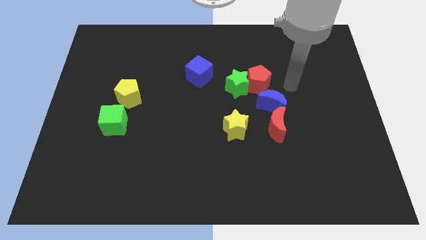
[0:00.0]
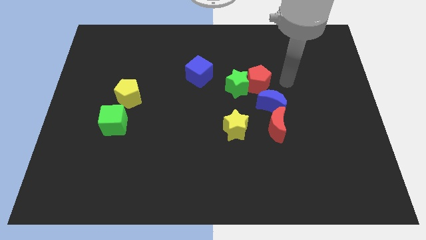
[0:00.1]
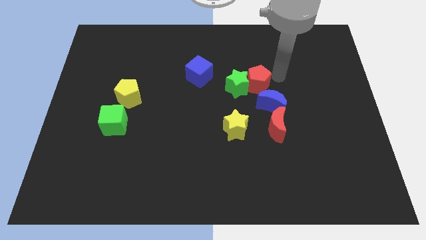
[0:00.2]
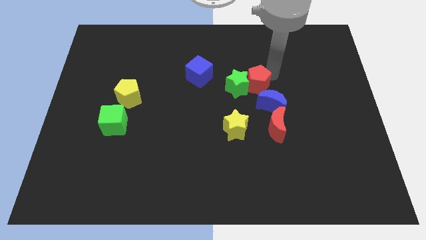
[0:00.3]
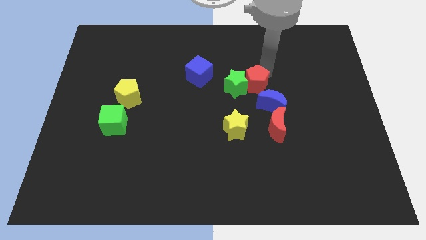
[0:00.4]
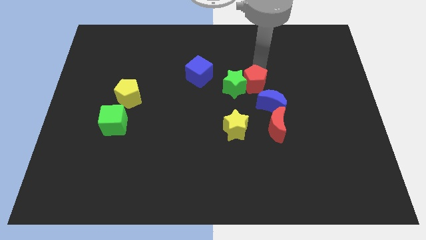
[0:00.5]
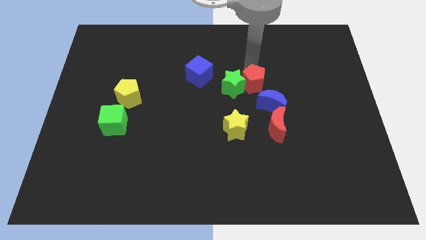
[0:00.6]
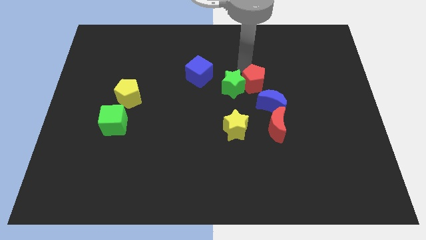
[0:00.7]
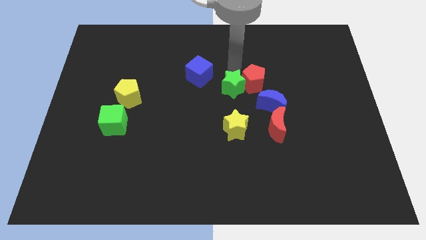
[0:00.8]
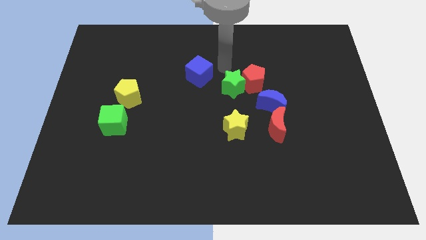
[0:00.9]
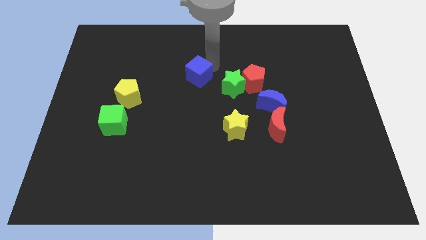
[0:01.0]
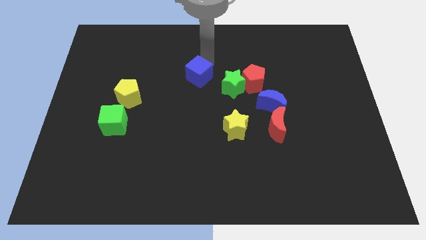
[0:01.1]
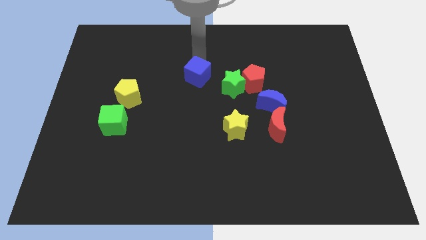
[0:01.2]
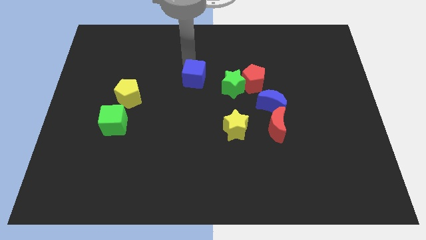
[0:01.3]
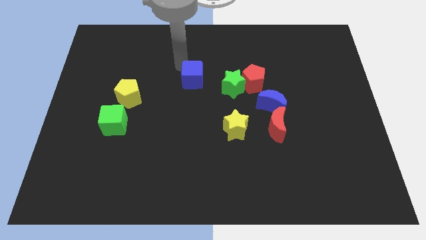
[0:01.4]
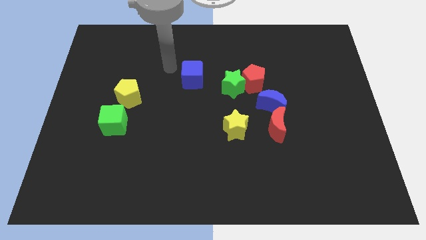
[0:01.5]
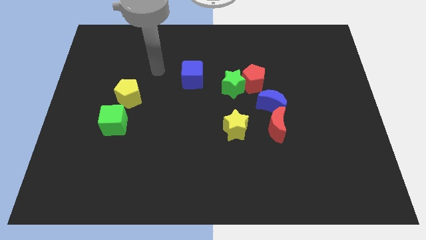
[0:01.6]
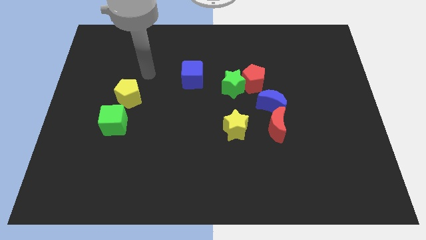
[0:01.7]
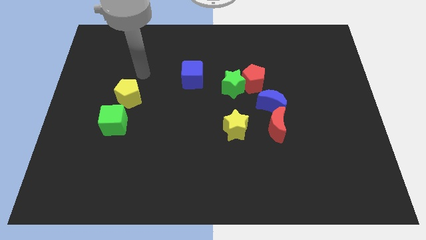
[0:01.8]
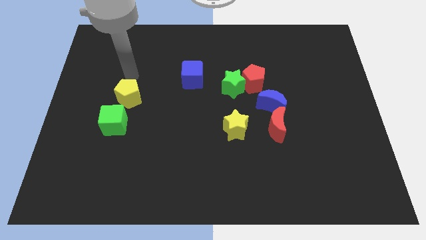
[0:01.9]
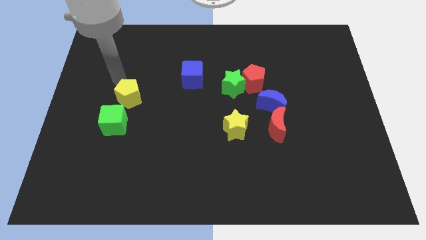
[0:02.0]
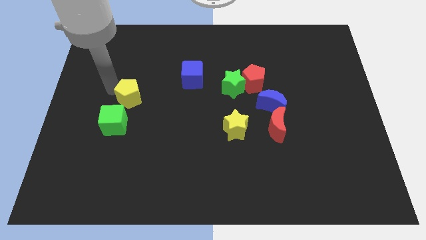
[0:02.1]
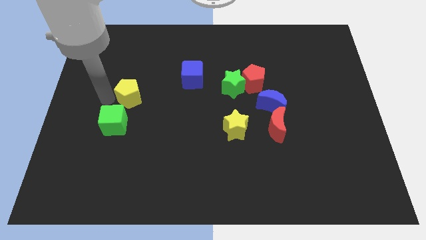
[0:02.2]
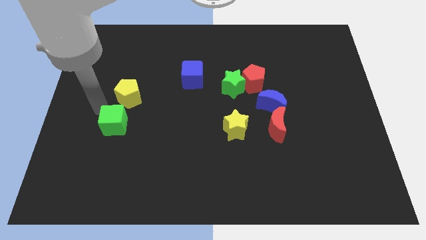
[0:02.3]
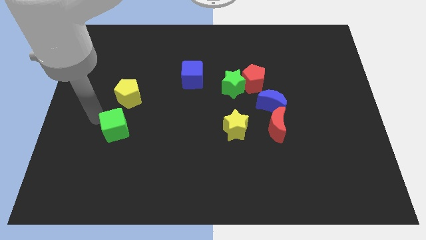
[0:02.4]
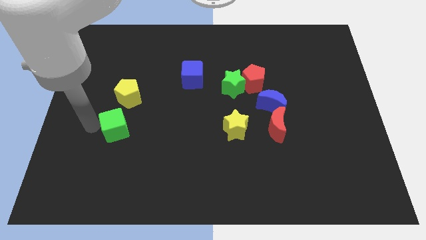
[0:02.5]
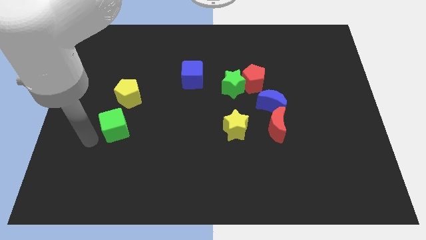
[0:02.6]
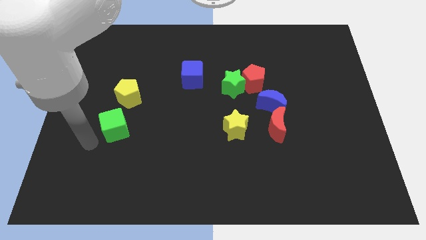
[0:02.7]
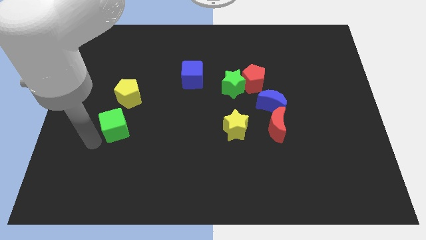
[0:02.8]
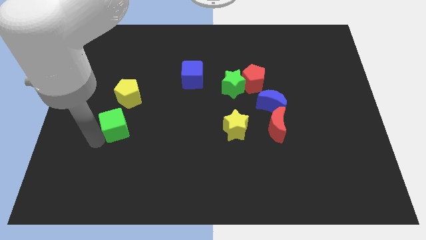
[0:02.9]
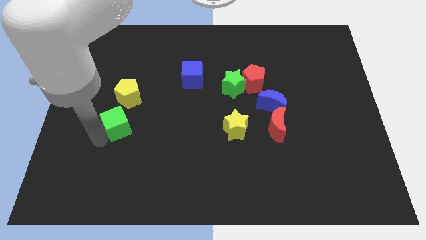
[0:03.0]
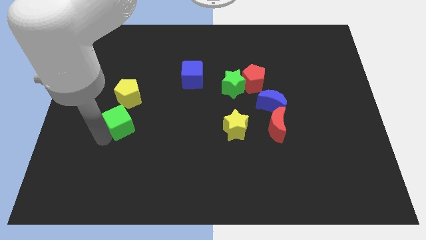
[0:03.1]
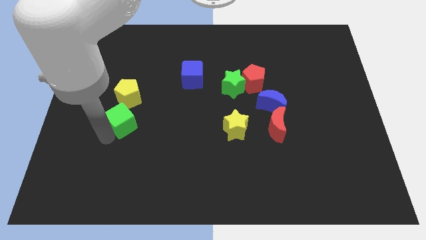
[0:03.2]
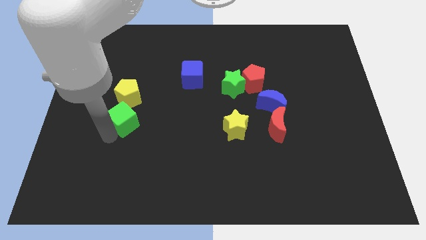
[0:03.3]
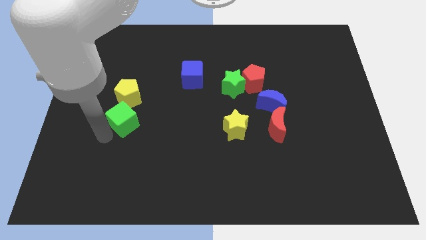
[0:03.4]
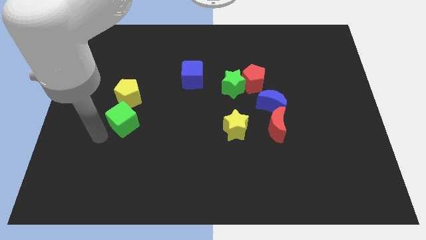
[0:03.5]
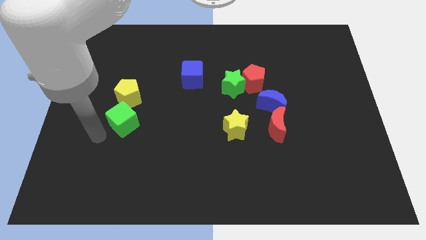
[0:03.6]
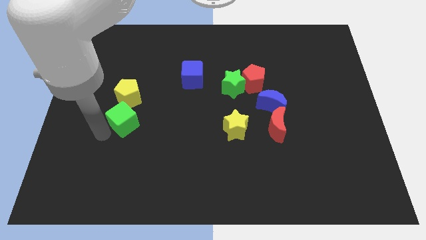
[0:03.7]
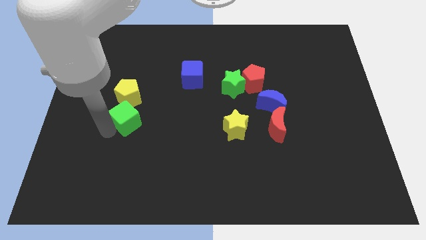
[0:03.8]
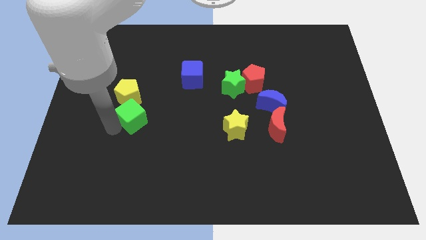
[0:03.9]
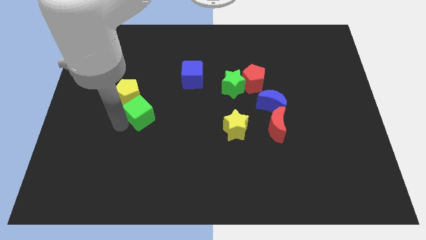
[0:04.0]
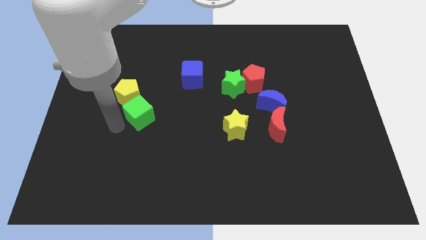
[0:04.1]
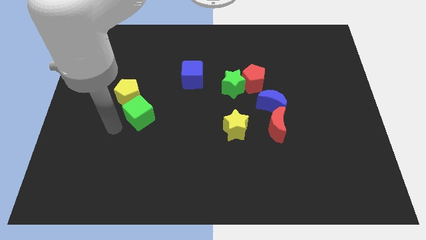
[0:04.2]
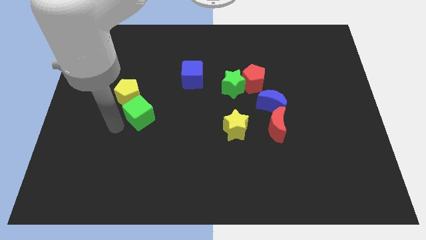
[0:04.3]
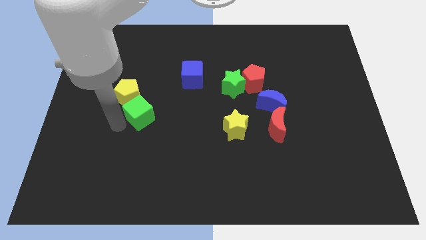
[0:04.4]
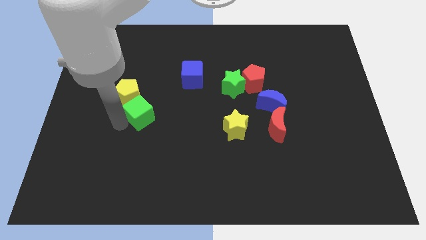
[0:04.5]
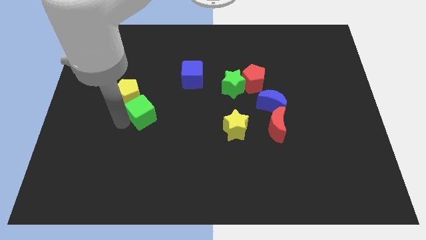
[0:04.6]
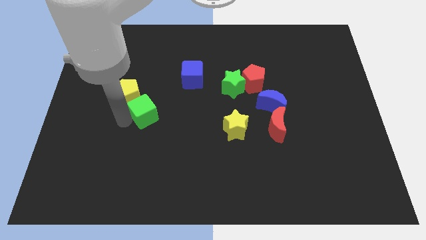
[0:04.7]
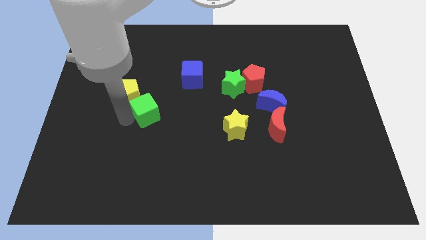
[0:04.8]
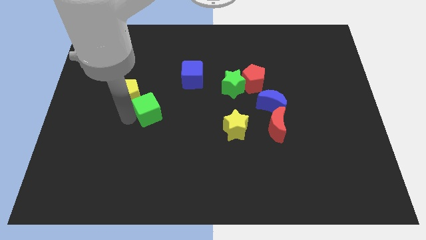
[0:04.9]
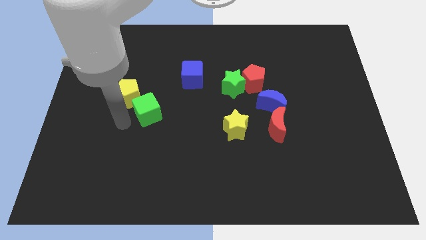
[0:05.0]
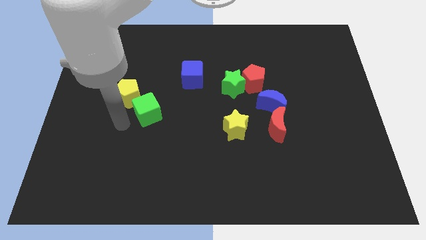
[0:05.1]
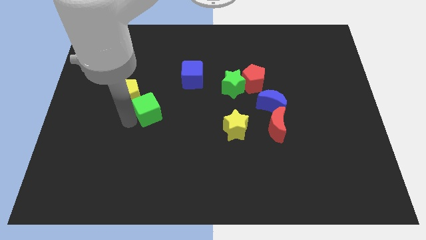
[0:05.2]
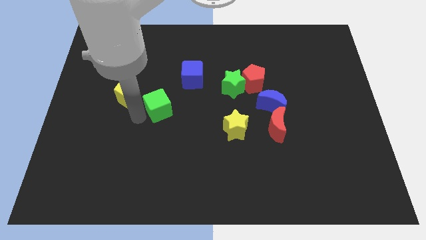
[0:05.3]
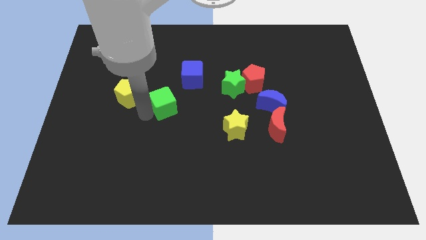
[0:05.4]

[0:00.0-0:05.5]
move the green cube to the middle of the board

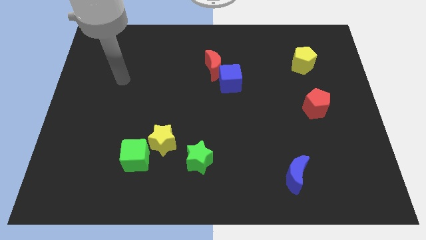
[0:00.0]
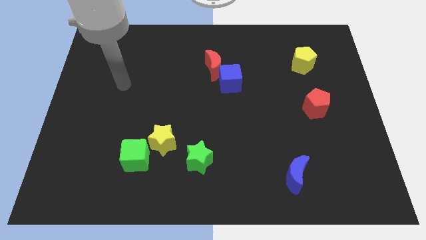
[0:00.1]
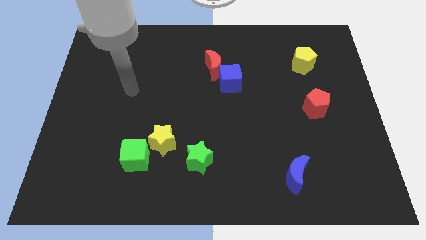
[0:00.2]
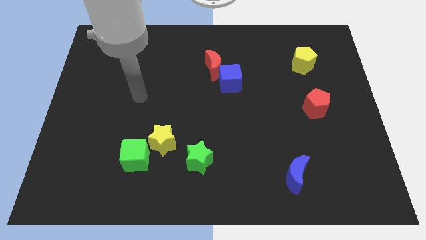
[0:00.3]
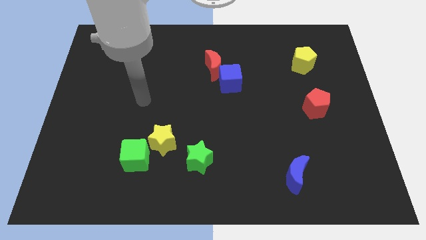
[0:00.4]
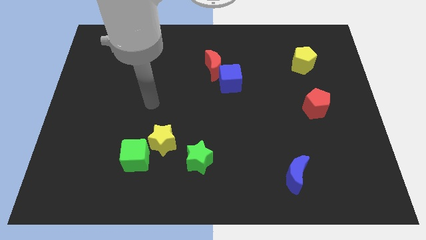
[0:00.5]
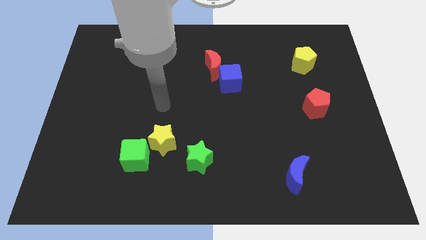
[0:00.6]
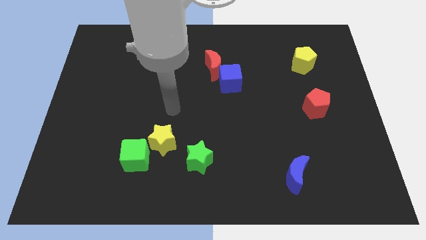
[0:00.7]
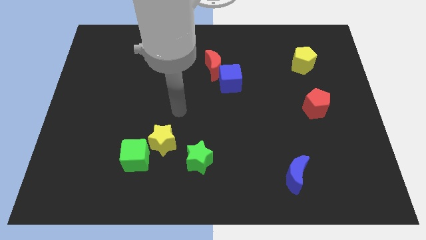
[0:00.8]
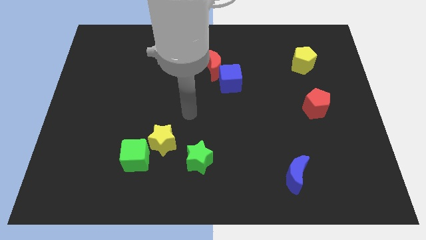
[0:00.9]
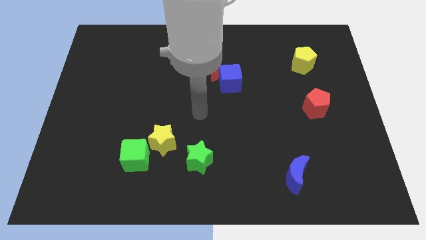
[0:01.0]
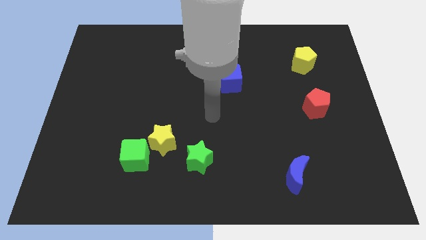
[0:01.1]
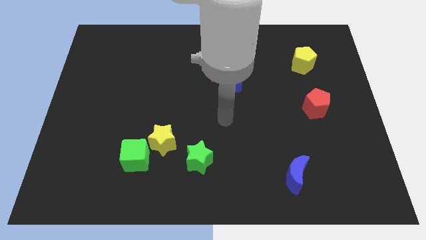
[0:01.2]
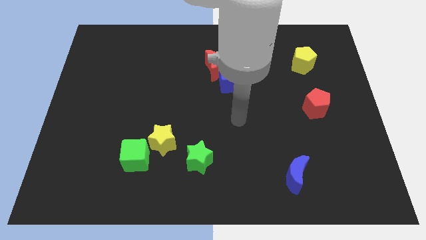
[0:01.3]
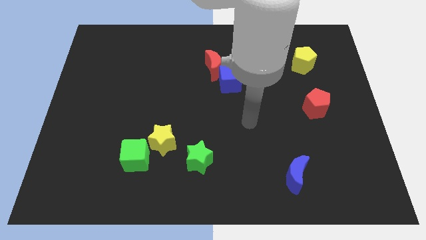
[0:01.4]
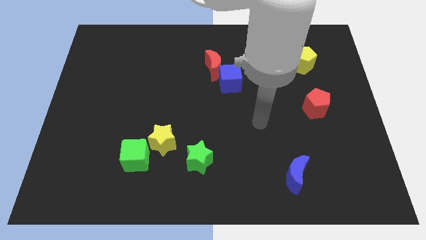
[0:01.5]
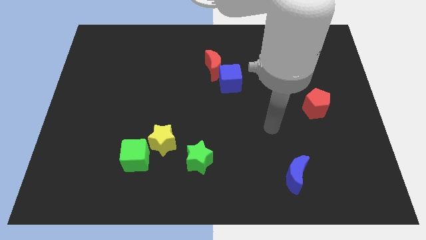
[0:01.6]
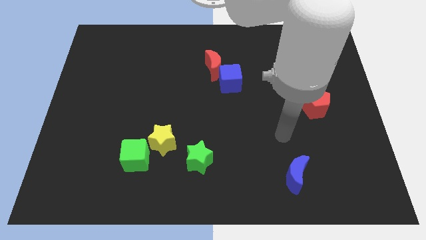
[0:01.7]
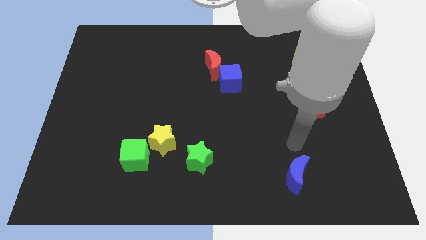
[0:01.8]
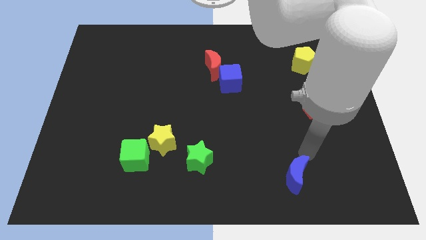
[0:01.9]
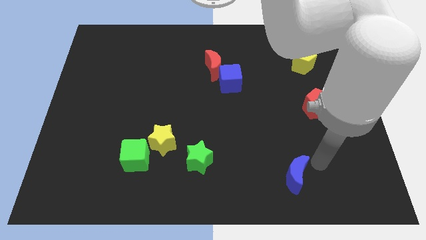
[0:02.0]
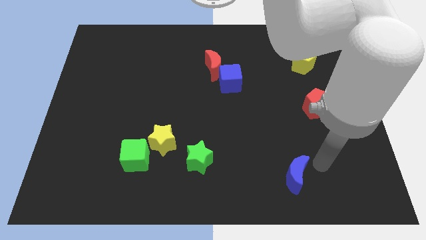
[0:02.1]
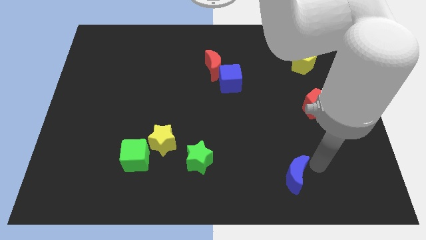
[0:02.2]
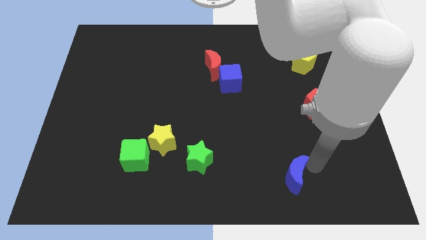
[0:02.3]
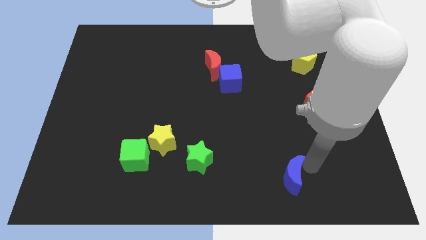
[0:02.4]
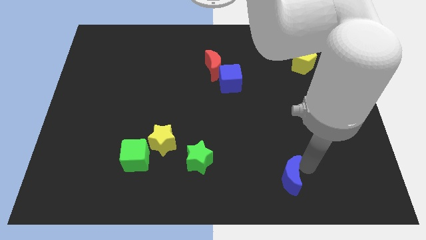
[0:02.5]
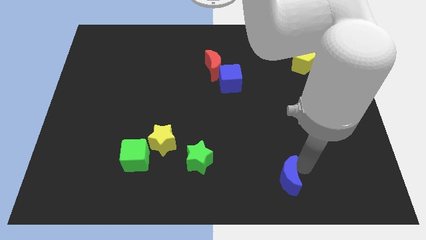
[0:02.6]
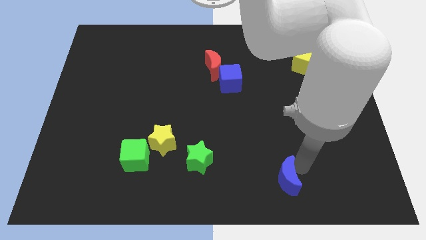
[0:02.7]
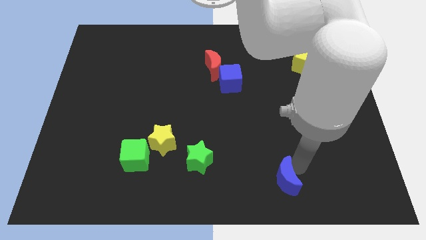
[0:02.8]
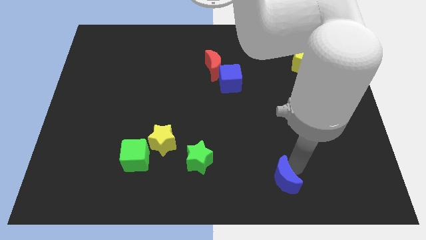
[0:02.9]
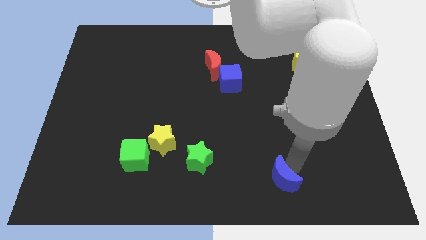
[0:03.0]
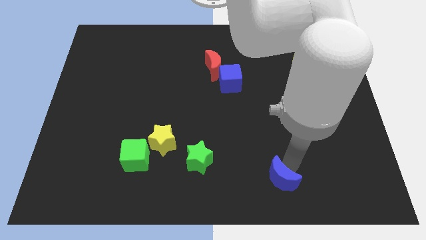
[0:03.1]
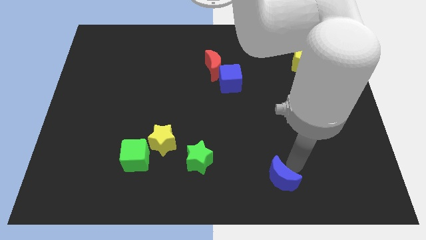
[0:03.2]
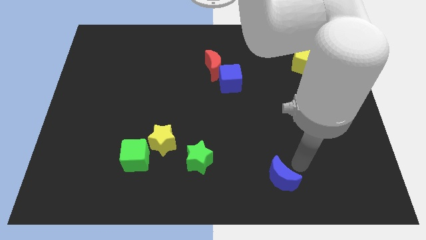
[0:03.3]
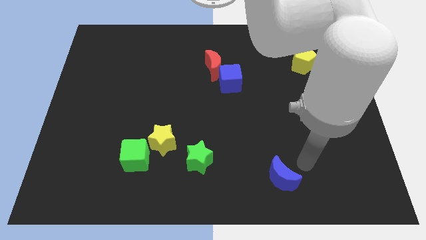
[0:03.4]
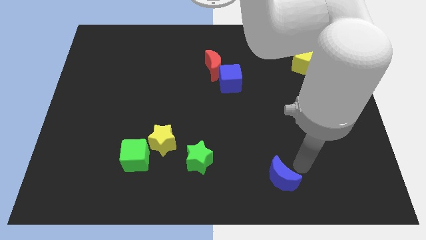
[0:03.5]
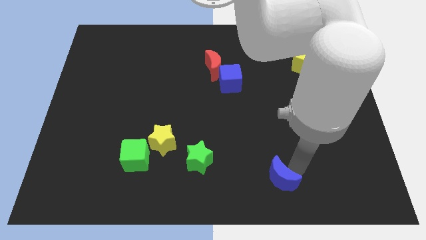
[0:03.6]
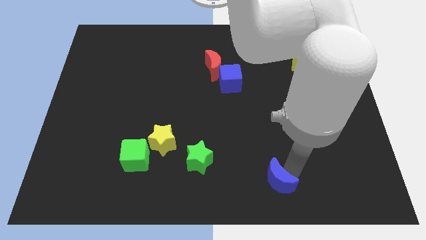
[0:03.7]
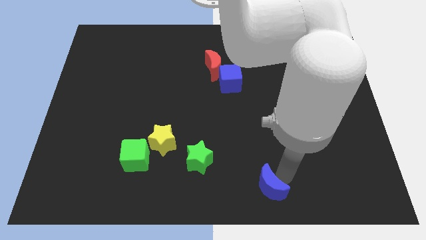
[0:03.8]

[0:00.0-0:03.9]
put the blue moon to the bottom side
